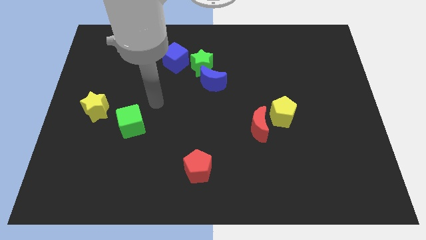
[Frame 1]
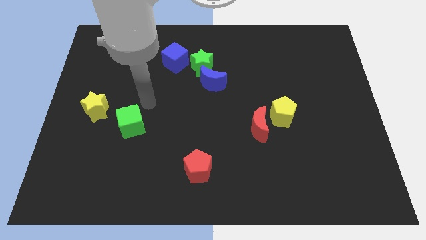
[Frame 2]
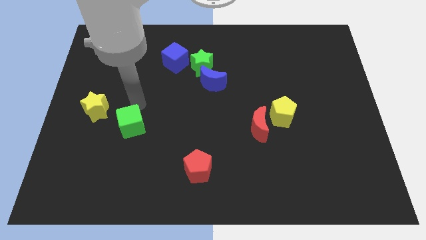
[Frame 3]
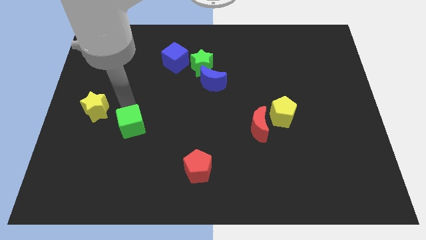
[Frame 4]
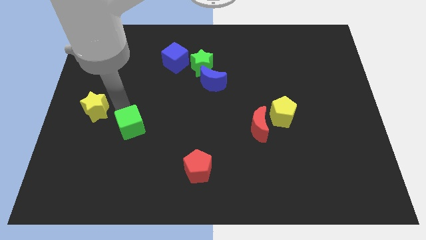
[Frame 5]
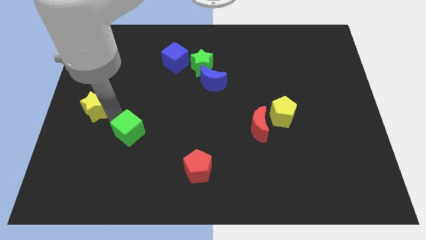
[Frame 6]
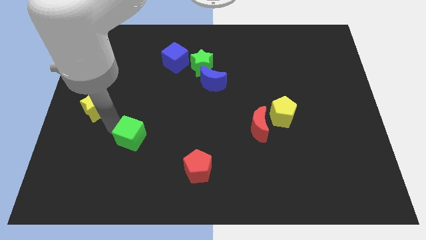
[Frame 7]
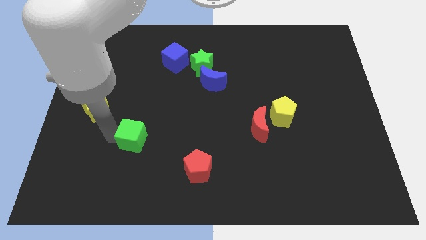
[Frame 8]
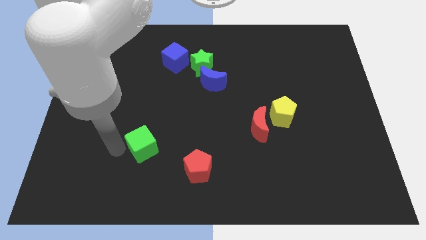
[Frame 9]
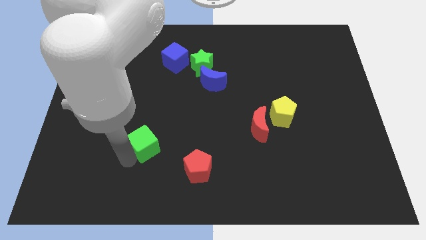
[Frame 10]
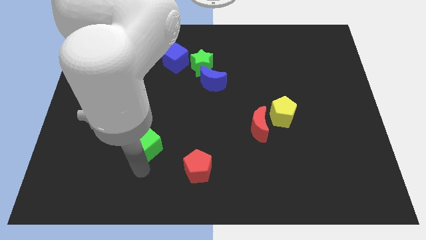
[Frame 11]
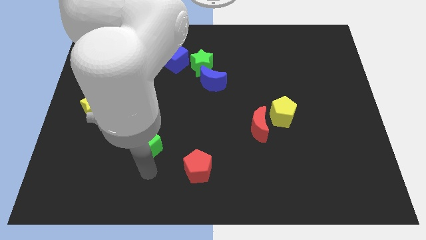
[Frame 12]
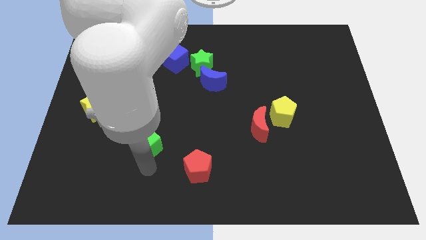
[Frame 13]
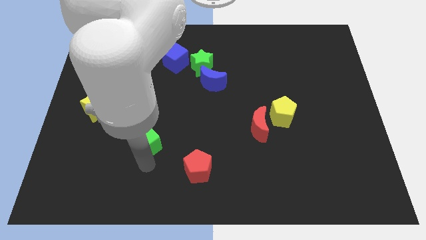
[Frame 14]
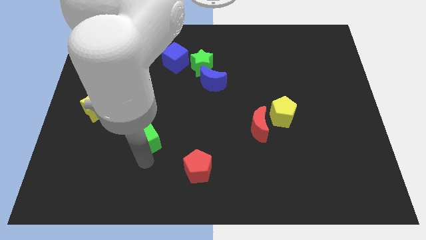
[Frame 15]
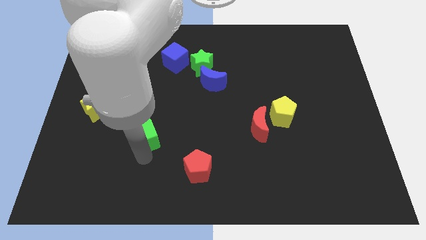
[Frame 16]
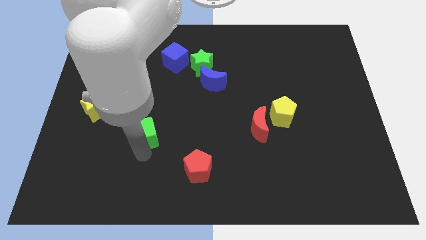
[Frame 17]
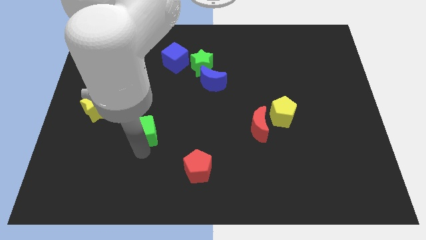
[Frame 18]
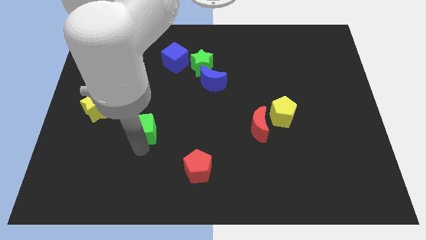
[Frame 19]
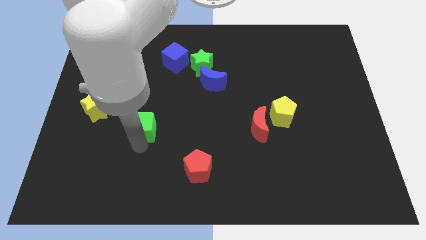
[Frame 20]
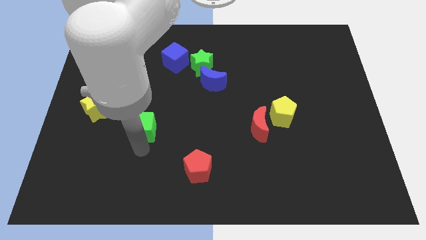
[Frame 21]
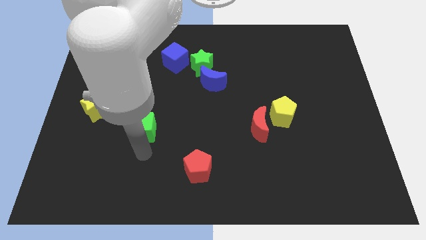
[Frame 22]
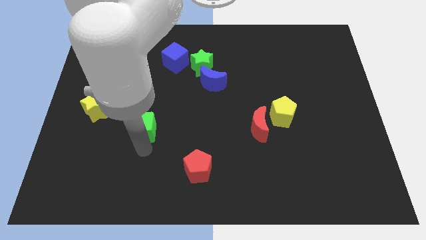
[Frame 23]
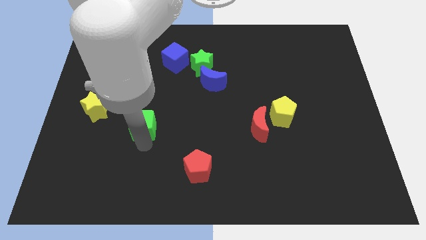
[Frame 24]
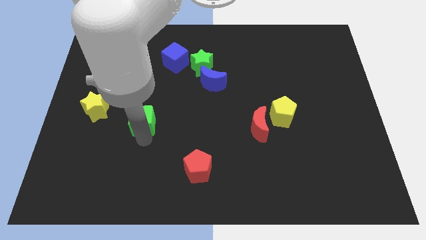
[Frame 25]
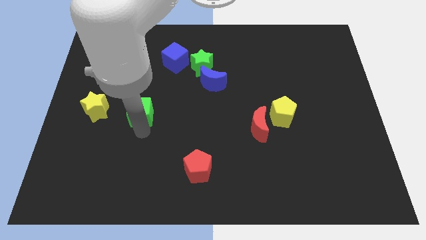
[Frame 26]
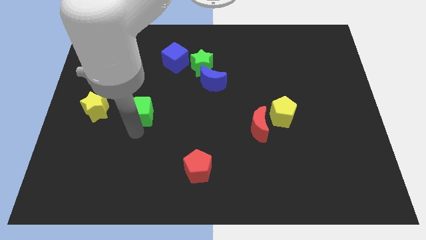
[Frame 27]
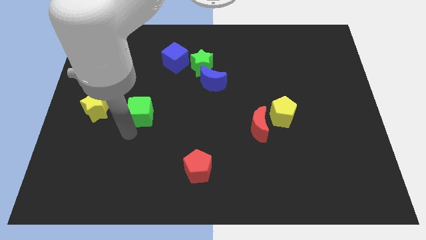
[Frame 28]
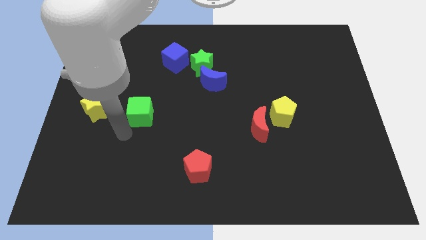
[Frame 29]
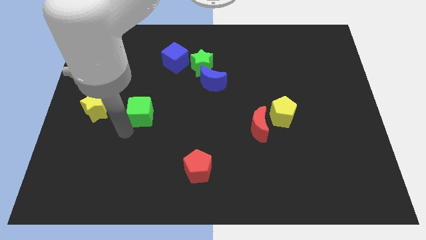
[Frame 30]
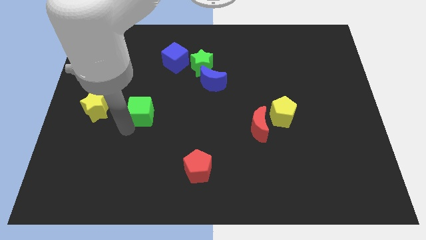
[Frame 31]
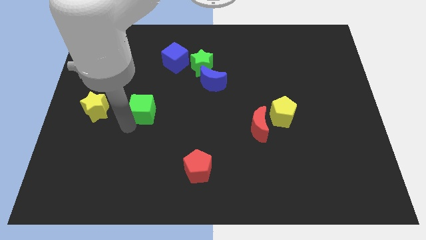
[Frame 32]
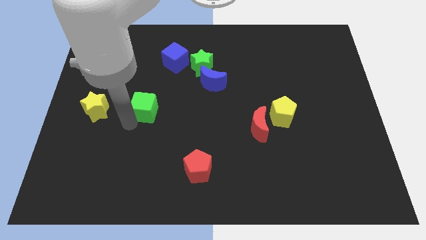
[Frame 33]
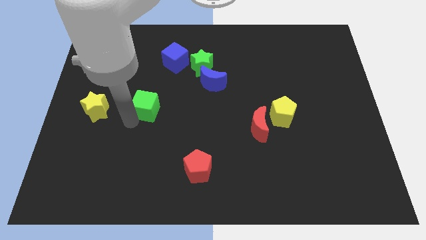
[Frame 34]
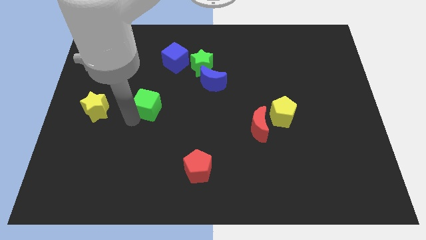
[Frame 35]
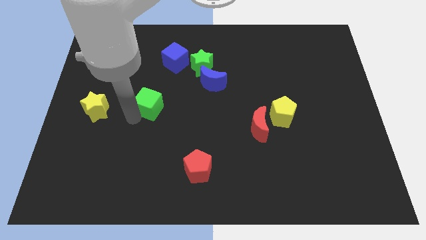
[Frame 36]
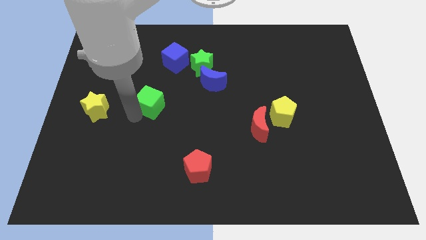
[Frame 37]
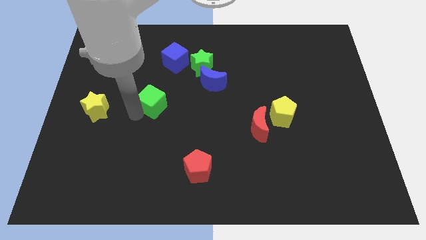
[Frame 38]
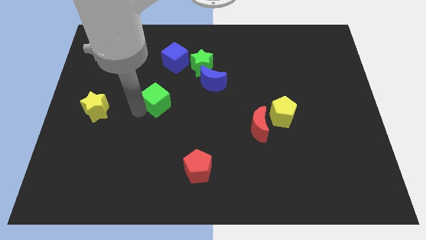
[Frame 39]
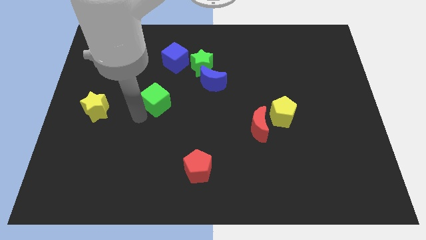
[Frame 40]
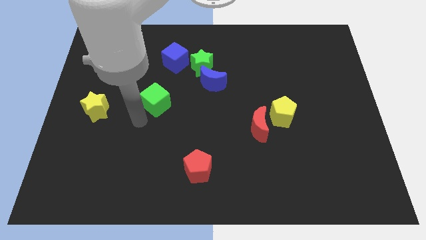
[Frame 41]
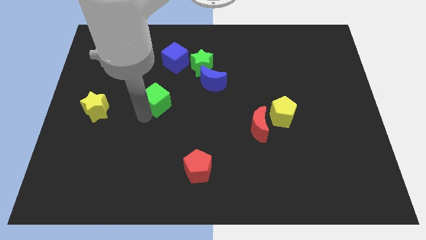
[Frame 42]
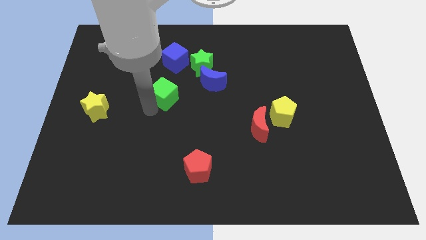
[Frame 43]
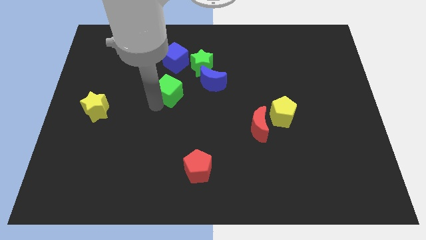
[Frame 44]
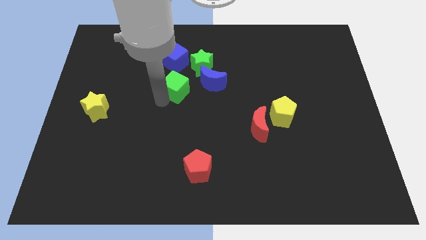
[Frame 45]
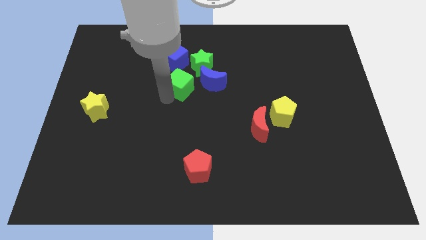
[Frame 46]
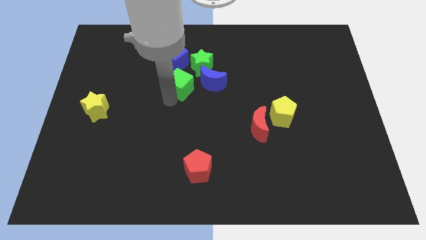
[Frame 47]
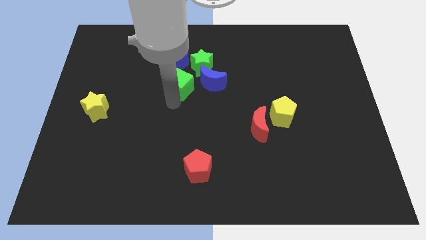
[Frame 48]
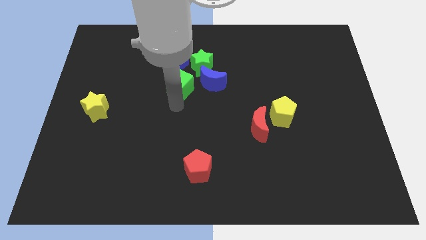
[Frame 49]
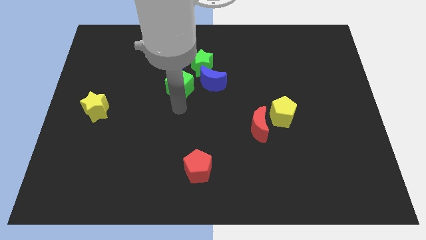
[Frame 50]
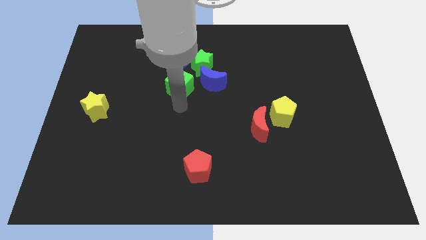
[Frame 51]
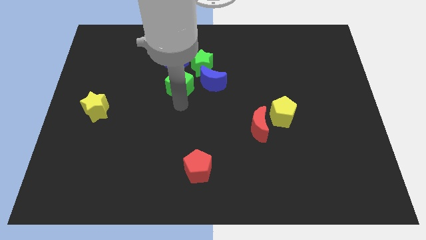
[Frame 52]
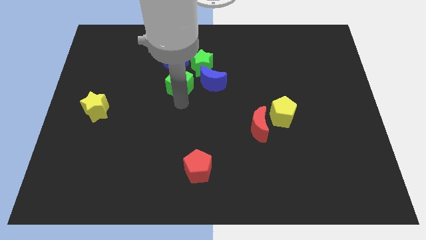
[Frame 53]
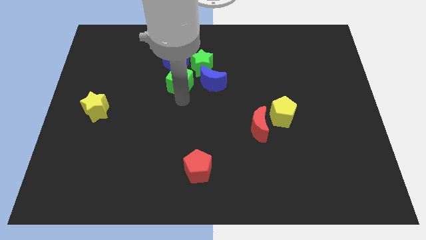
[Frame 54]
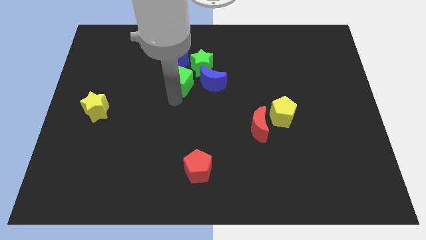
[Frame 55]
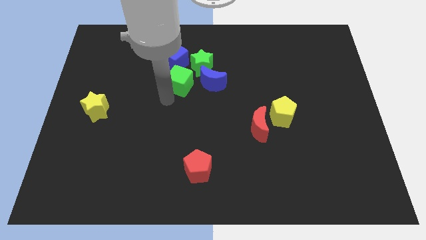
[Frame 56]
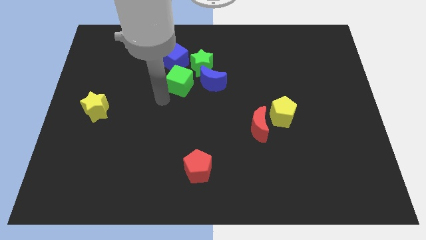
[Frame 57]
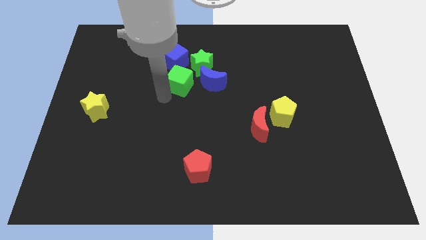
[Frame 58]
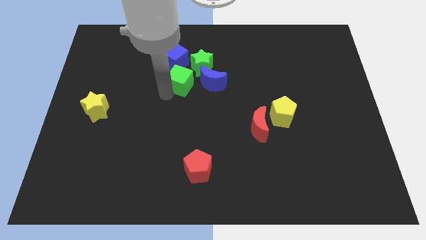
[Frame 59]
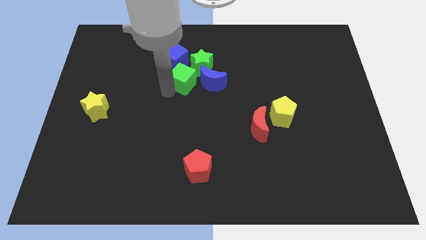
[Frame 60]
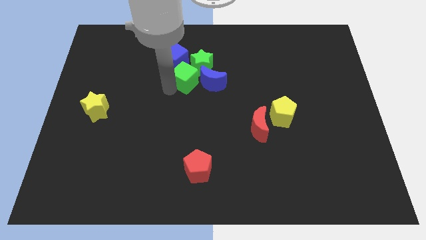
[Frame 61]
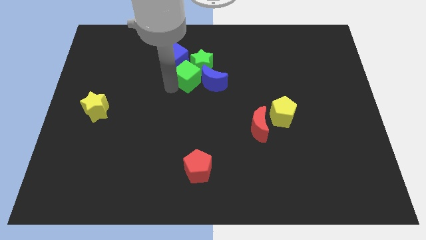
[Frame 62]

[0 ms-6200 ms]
slide the green cube close to the green star
